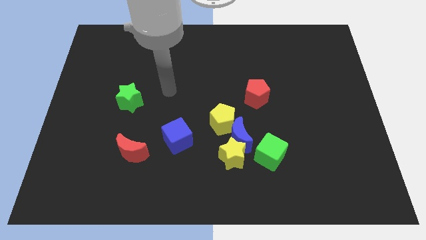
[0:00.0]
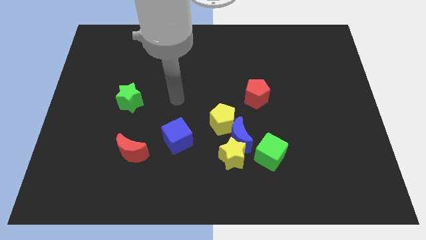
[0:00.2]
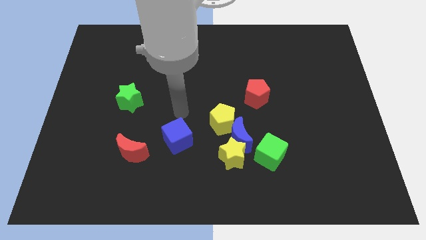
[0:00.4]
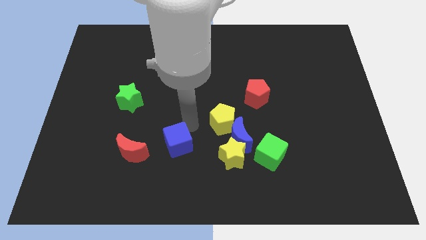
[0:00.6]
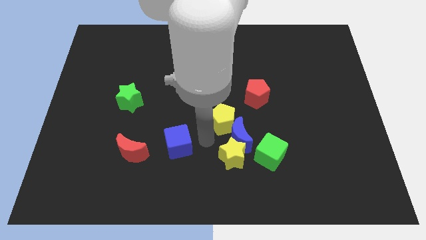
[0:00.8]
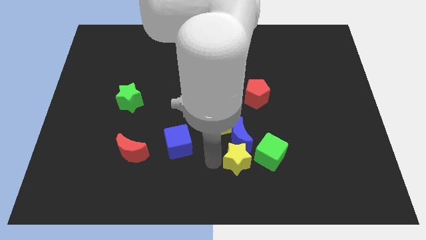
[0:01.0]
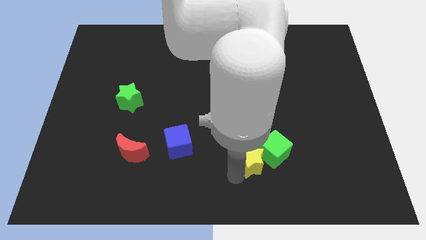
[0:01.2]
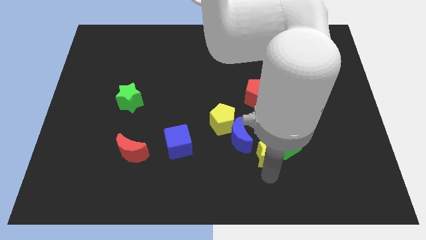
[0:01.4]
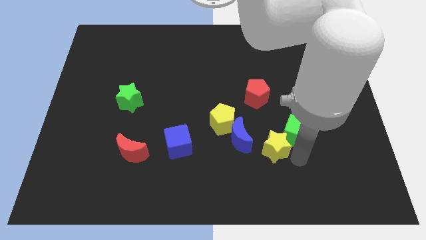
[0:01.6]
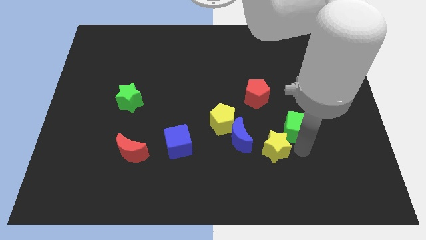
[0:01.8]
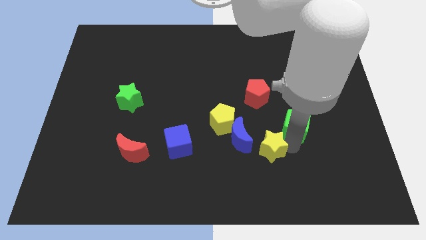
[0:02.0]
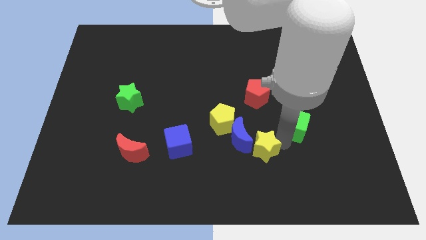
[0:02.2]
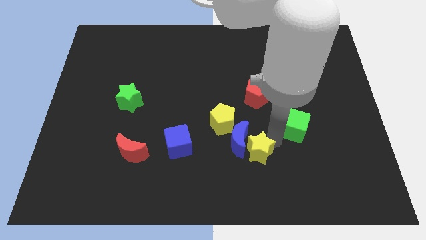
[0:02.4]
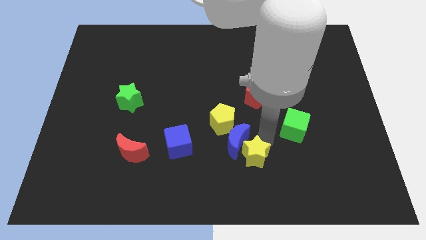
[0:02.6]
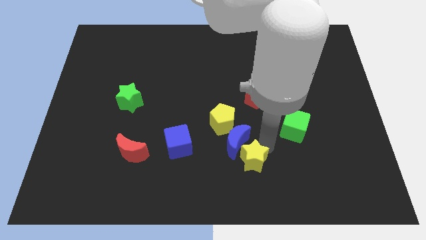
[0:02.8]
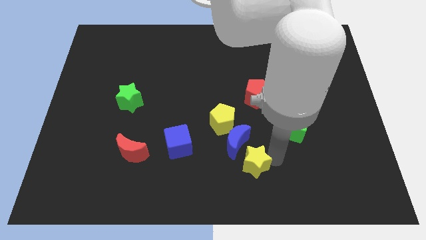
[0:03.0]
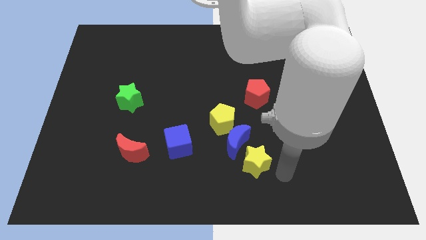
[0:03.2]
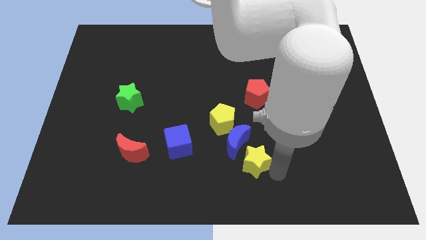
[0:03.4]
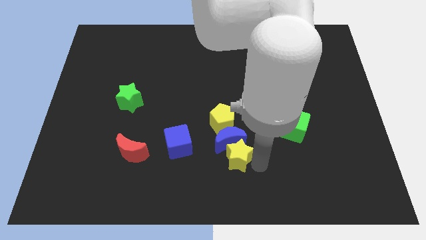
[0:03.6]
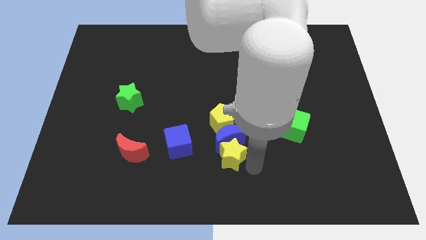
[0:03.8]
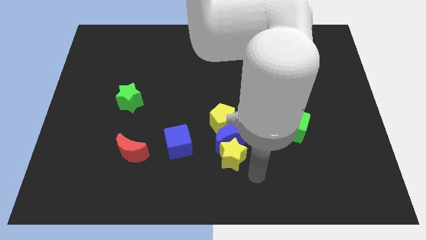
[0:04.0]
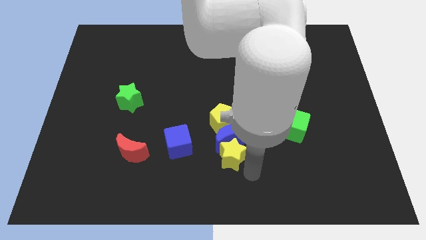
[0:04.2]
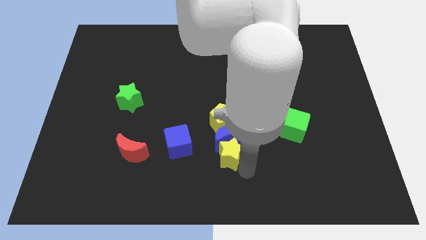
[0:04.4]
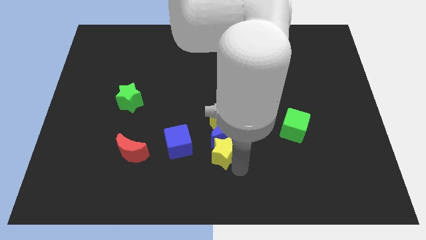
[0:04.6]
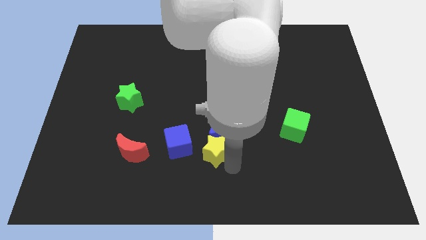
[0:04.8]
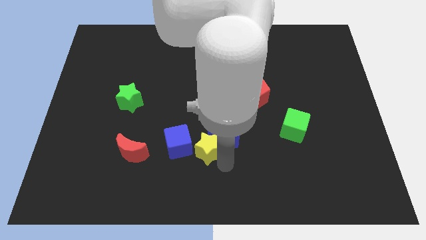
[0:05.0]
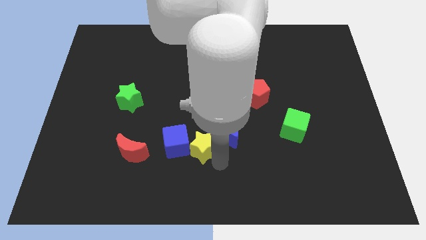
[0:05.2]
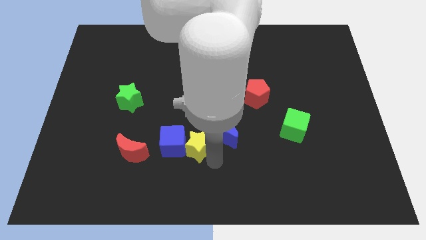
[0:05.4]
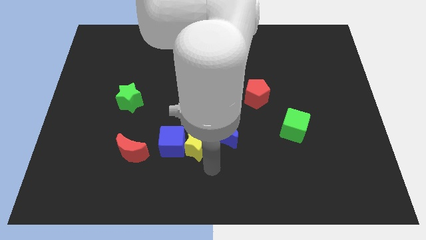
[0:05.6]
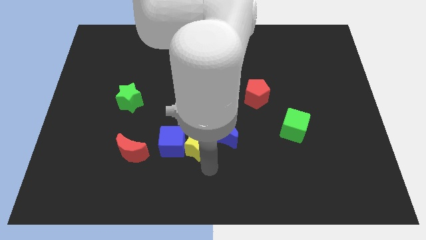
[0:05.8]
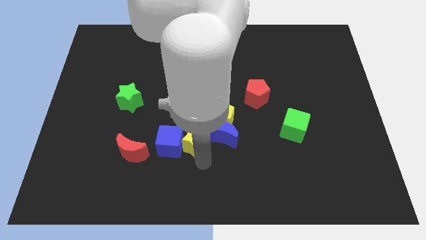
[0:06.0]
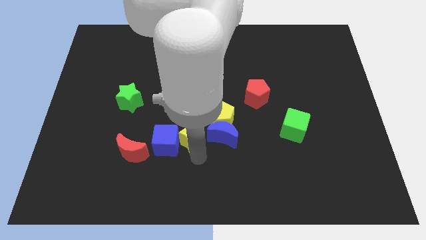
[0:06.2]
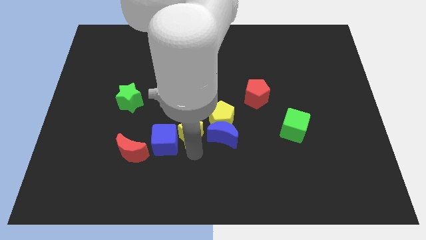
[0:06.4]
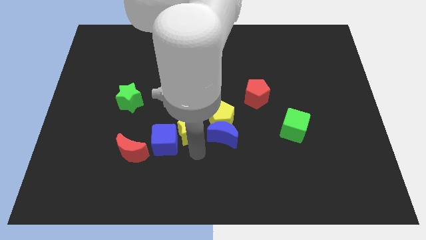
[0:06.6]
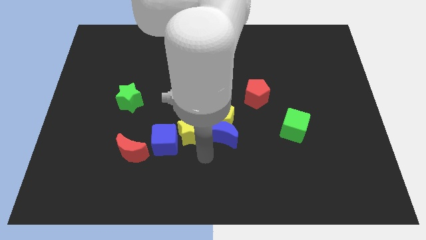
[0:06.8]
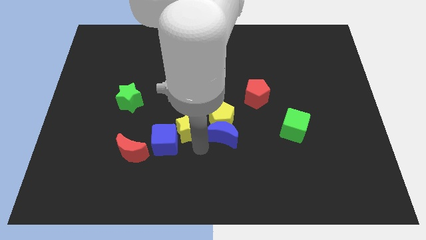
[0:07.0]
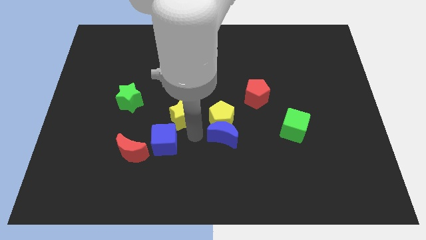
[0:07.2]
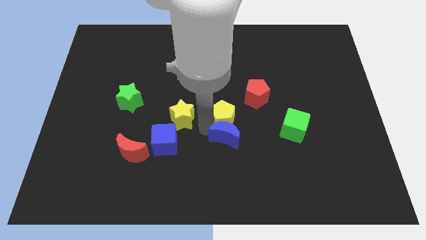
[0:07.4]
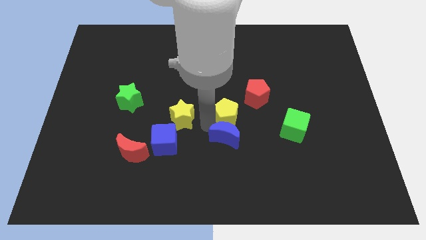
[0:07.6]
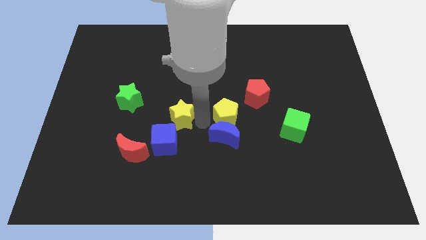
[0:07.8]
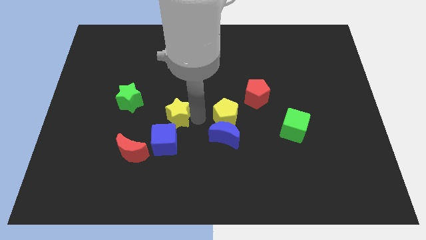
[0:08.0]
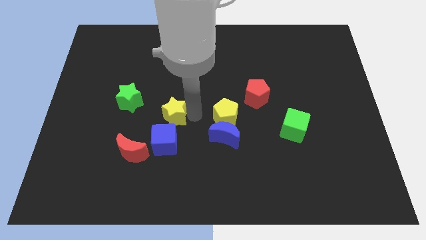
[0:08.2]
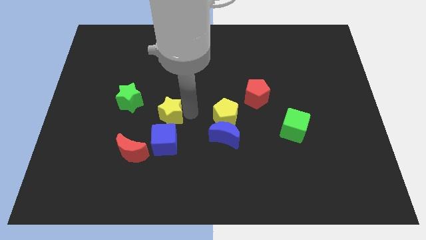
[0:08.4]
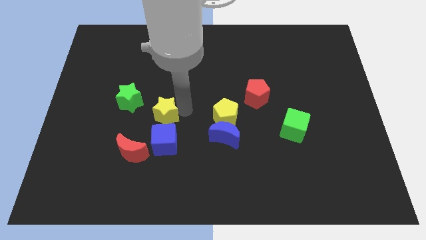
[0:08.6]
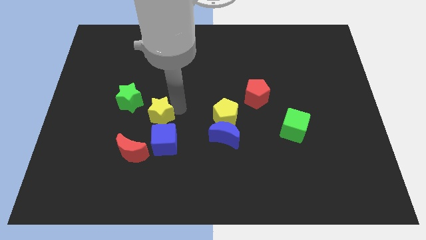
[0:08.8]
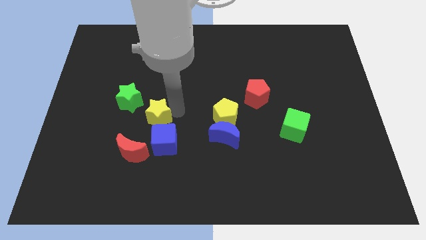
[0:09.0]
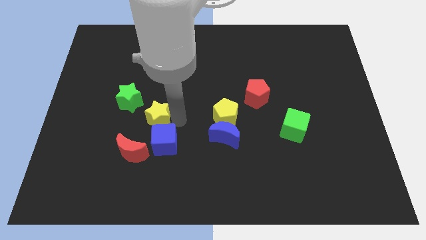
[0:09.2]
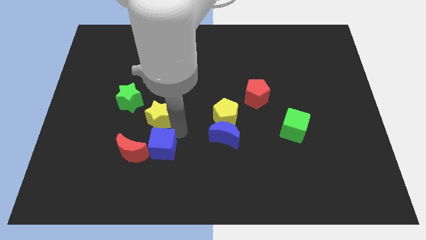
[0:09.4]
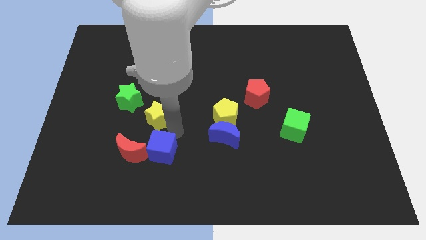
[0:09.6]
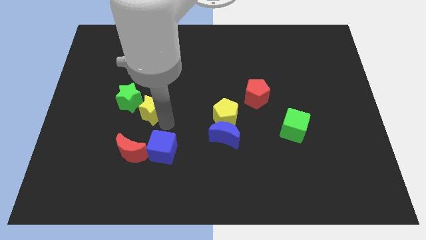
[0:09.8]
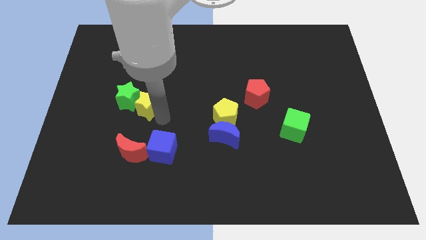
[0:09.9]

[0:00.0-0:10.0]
slide the yellow star next to the green star

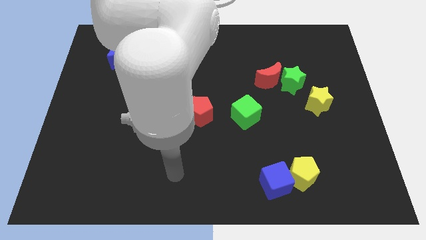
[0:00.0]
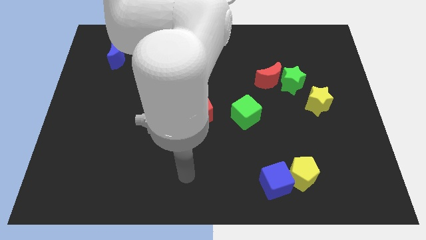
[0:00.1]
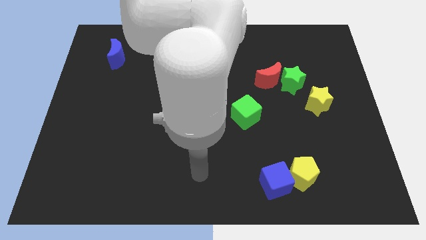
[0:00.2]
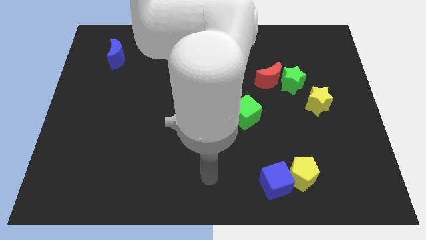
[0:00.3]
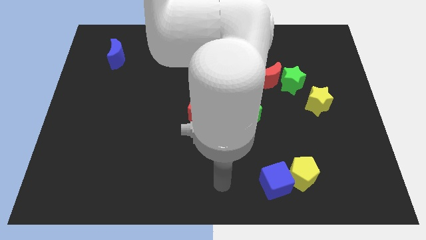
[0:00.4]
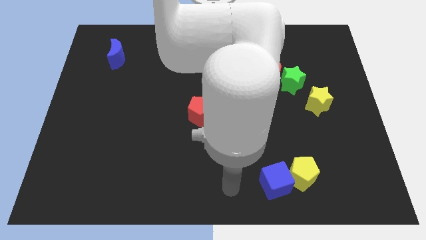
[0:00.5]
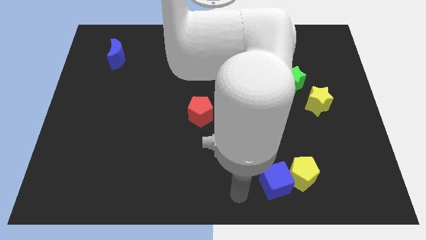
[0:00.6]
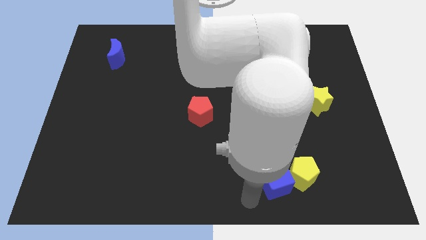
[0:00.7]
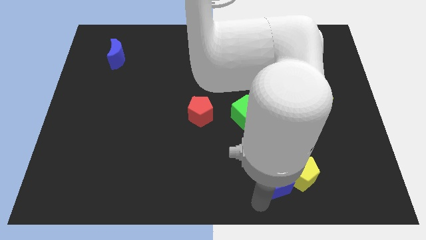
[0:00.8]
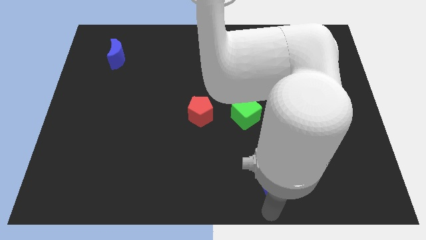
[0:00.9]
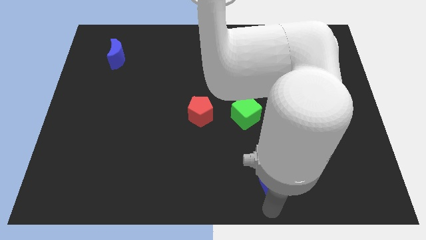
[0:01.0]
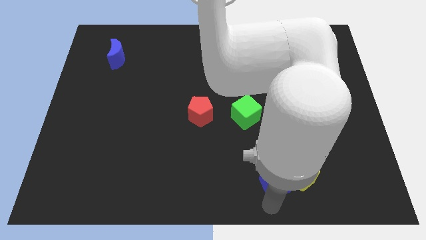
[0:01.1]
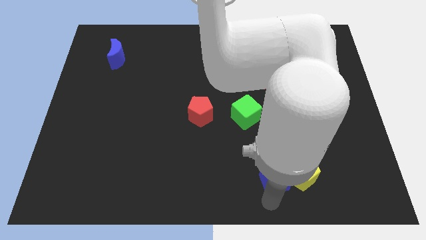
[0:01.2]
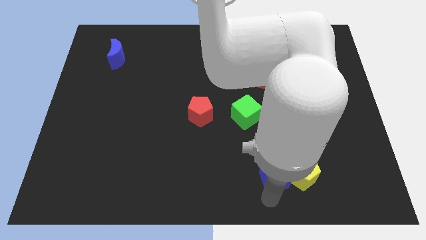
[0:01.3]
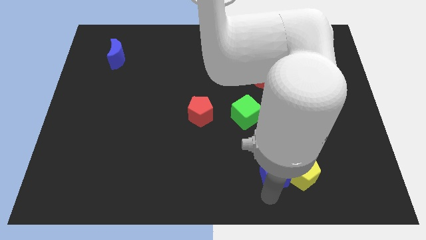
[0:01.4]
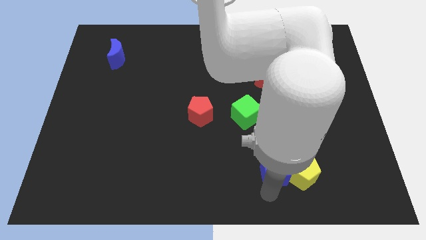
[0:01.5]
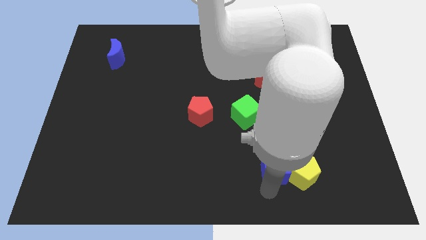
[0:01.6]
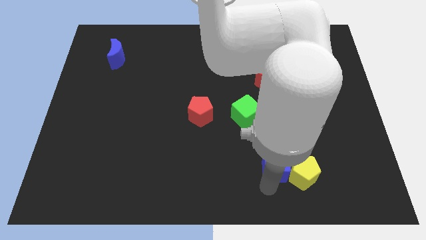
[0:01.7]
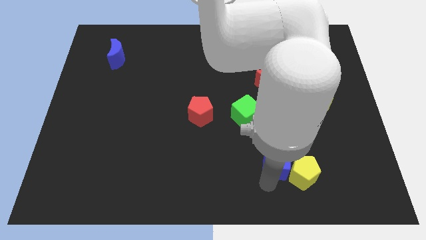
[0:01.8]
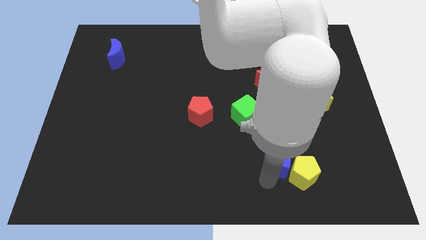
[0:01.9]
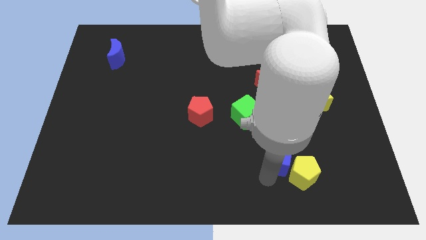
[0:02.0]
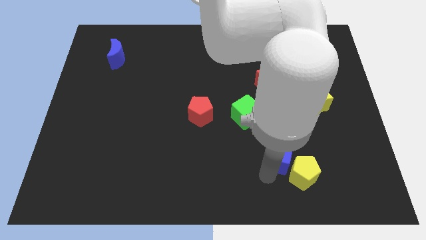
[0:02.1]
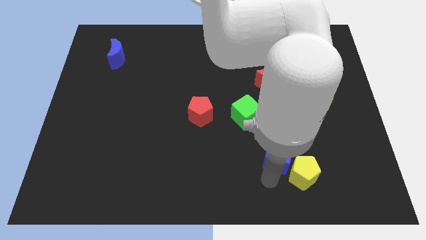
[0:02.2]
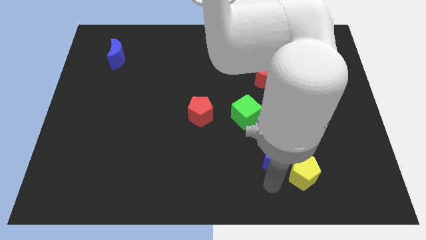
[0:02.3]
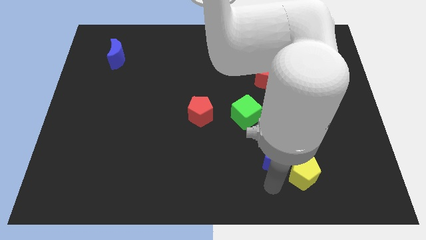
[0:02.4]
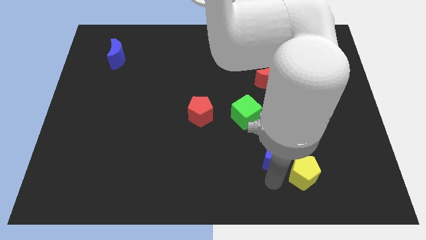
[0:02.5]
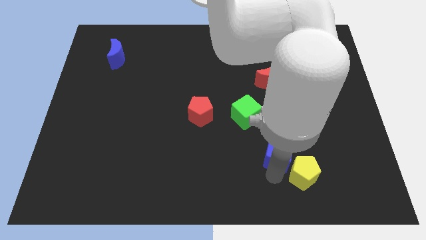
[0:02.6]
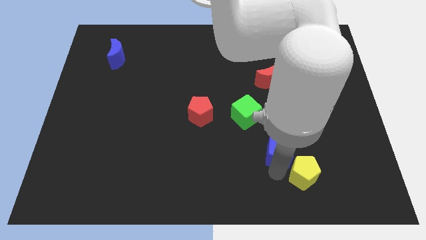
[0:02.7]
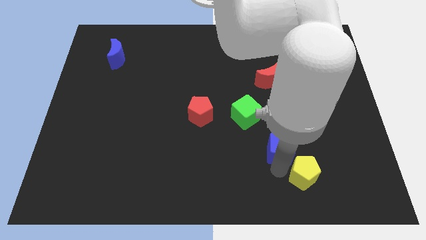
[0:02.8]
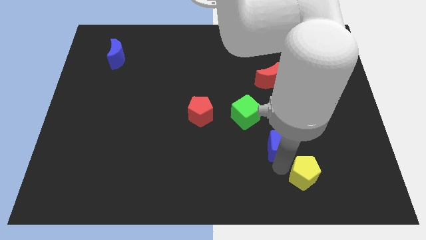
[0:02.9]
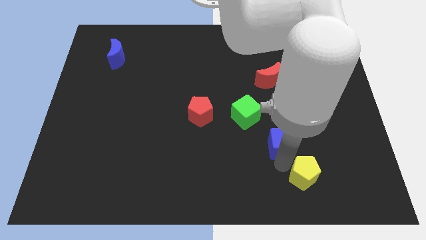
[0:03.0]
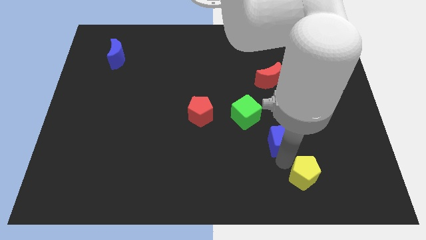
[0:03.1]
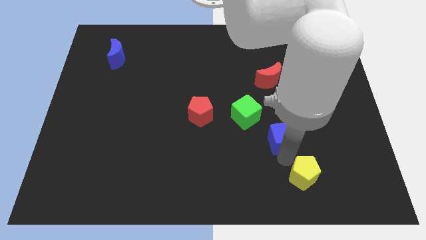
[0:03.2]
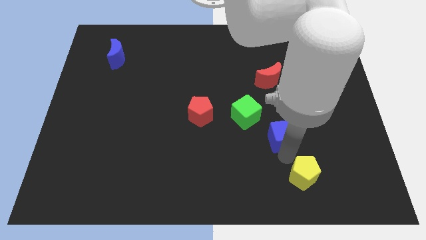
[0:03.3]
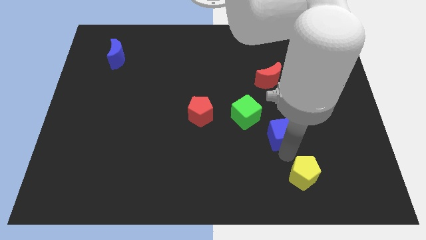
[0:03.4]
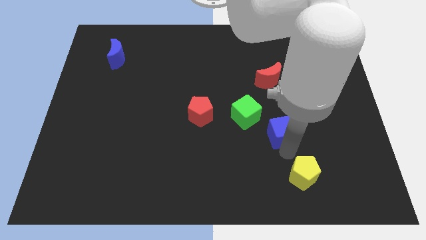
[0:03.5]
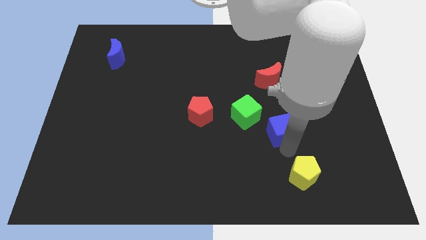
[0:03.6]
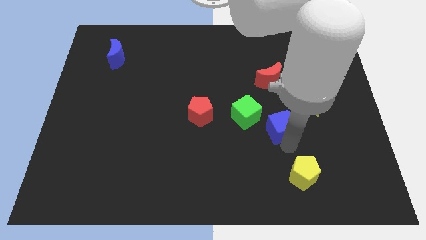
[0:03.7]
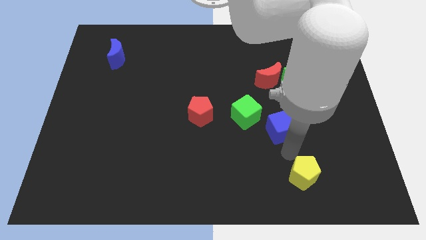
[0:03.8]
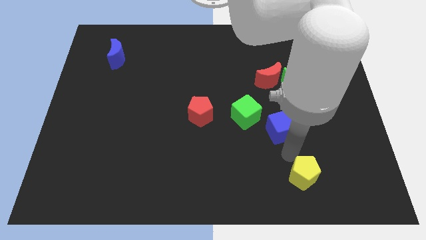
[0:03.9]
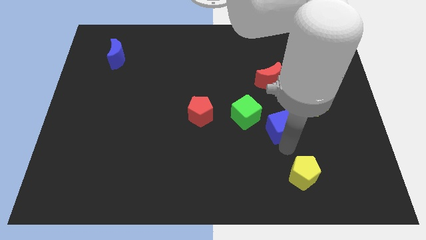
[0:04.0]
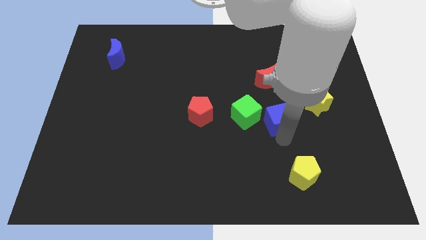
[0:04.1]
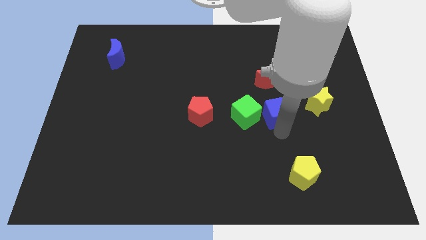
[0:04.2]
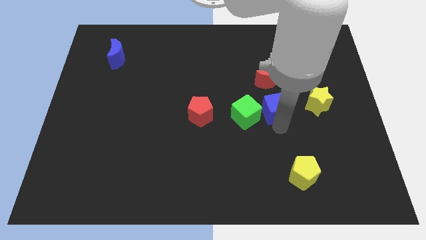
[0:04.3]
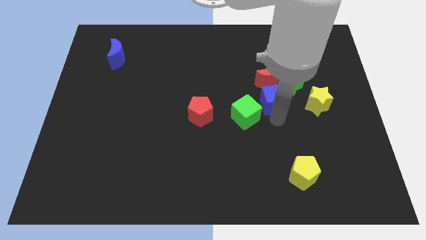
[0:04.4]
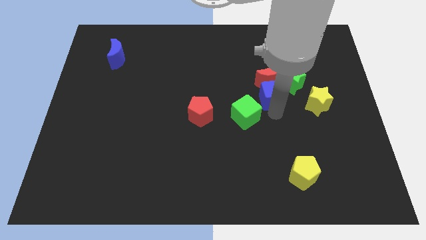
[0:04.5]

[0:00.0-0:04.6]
slide the blue cube to the red moon
